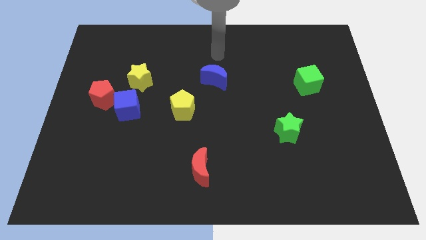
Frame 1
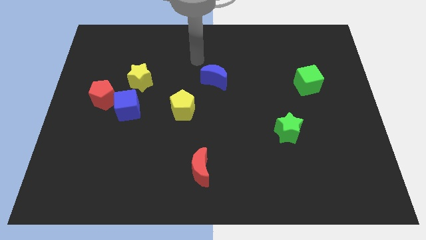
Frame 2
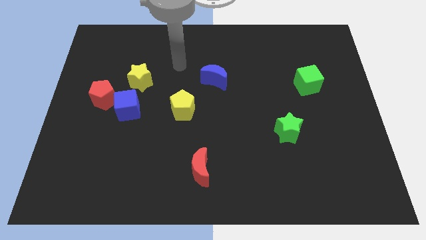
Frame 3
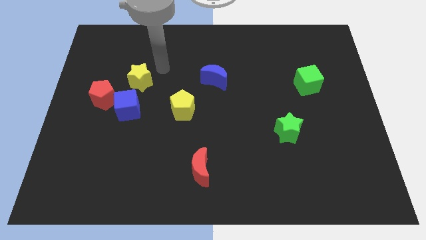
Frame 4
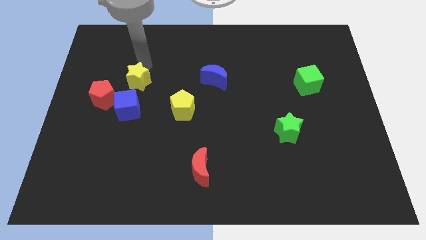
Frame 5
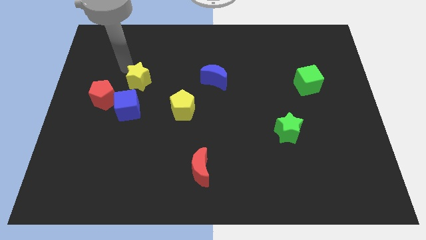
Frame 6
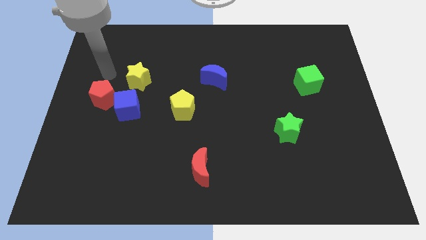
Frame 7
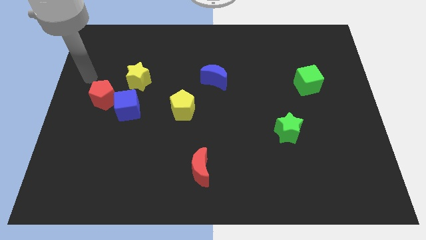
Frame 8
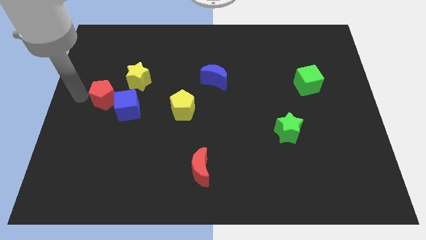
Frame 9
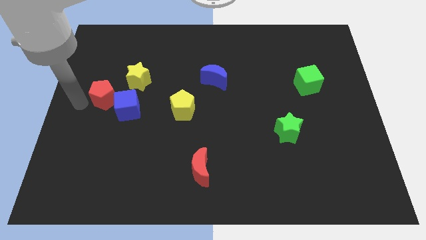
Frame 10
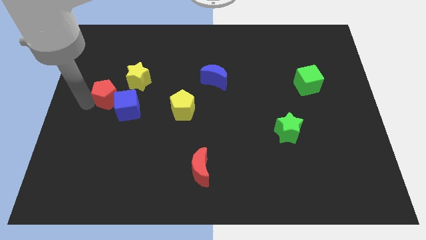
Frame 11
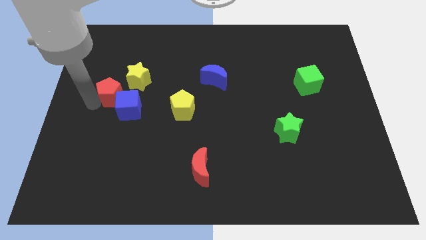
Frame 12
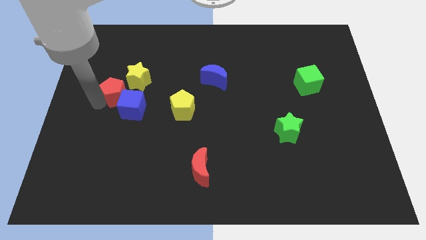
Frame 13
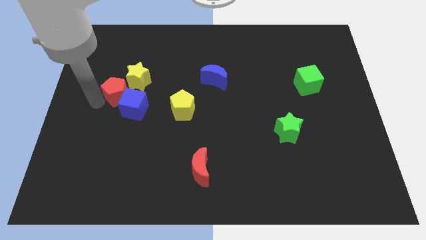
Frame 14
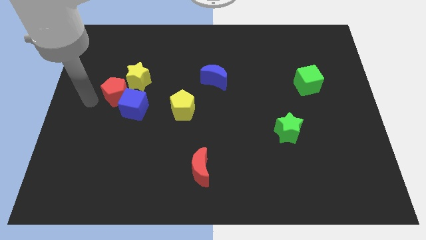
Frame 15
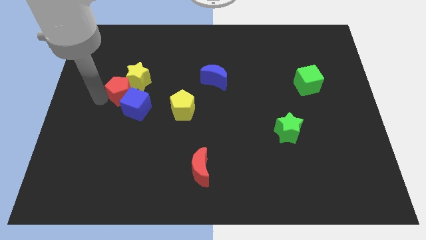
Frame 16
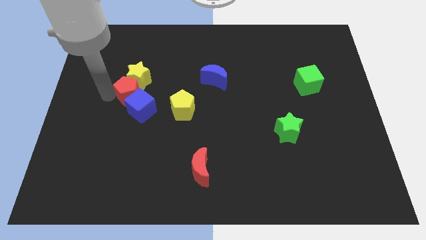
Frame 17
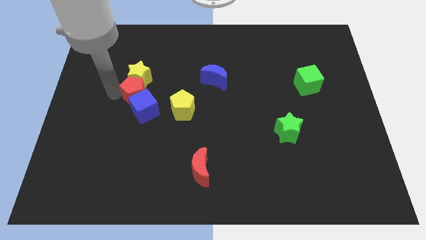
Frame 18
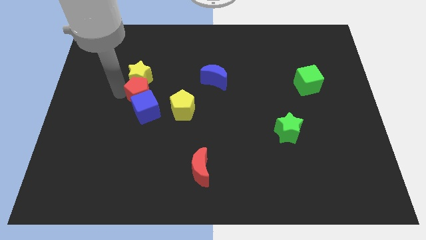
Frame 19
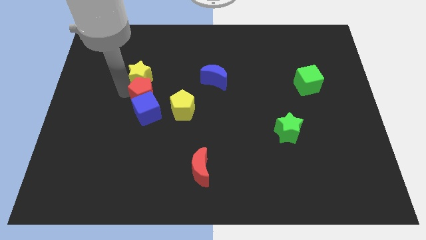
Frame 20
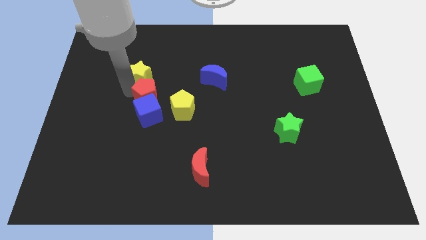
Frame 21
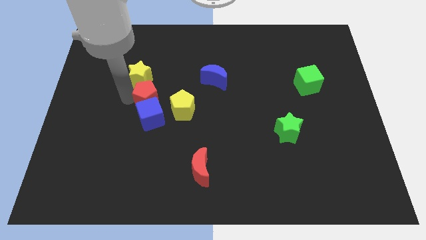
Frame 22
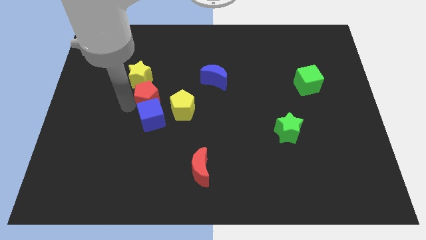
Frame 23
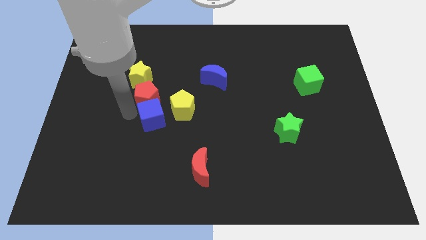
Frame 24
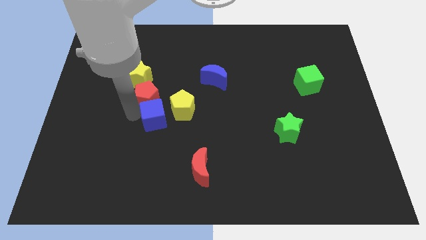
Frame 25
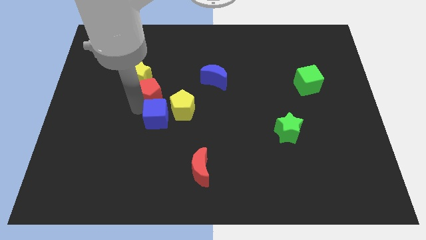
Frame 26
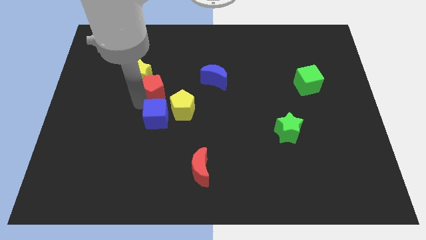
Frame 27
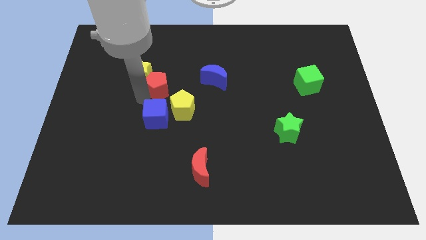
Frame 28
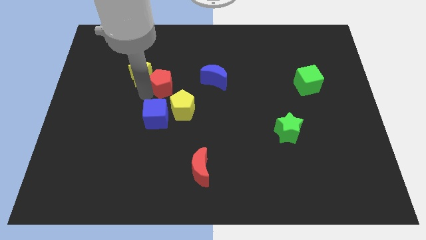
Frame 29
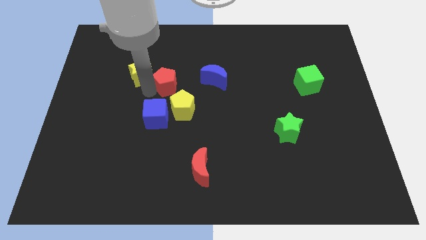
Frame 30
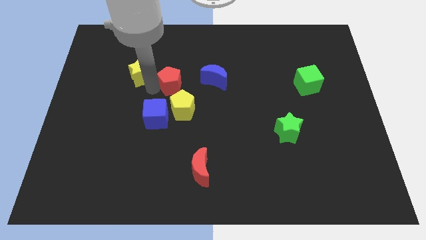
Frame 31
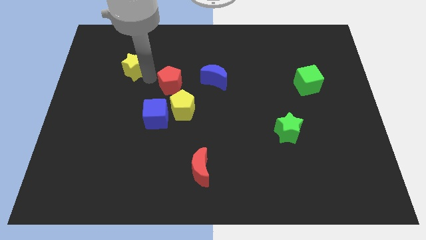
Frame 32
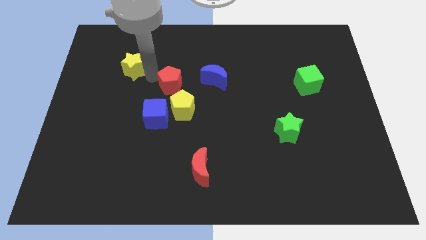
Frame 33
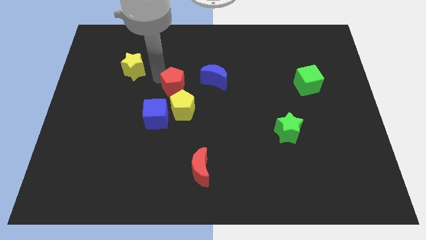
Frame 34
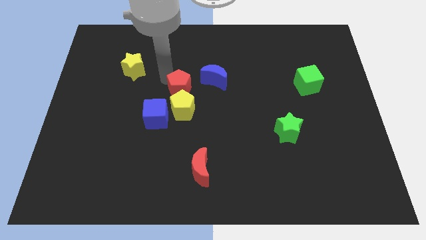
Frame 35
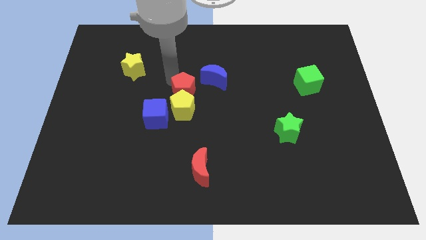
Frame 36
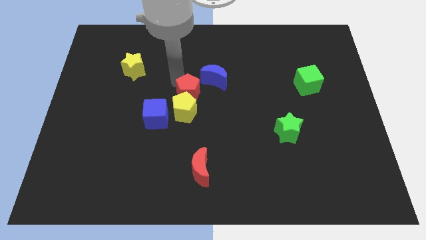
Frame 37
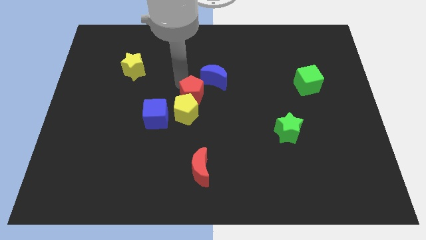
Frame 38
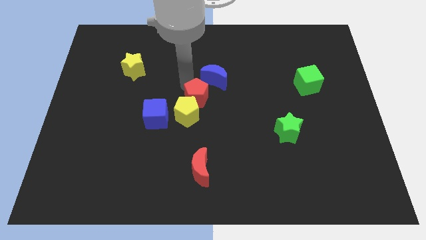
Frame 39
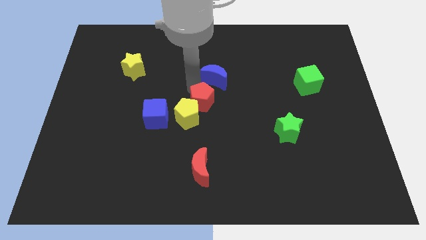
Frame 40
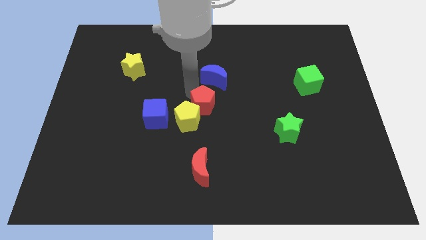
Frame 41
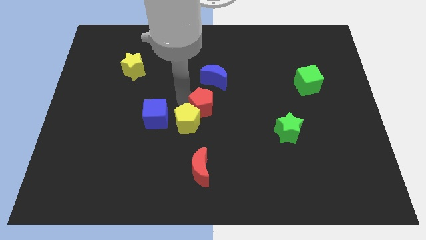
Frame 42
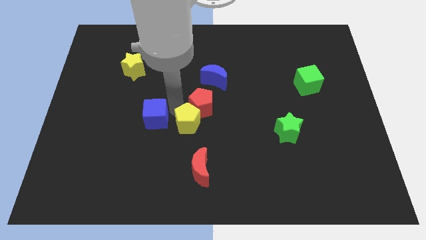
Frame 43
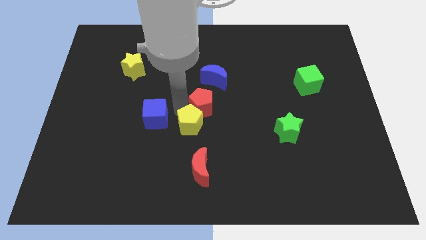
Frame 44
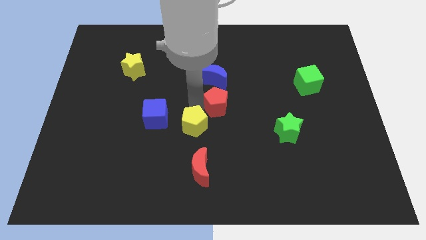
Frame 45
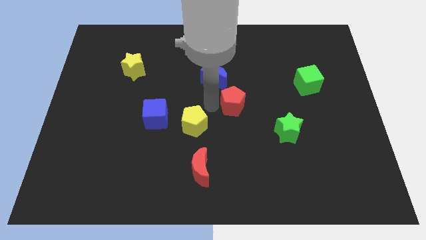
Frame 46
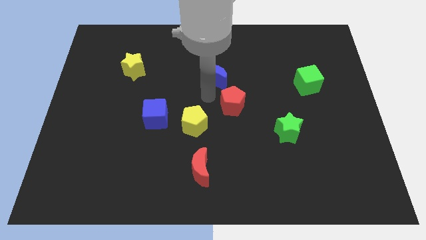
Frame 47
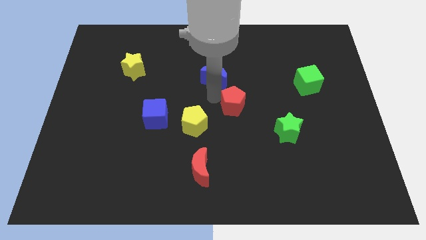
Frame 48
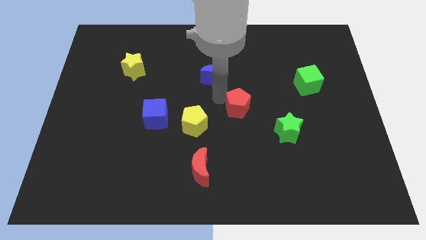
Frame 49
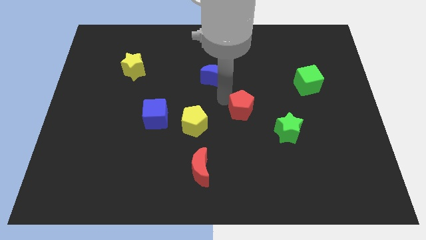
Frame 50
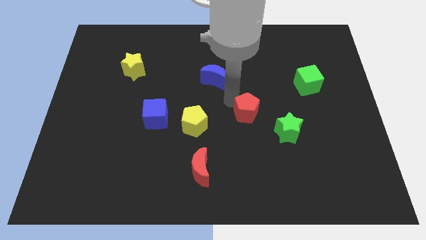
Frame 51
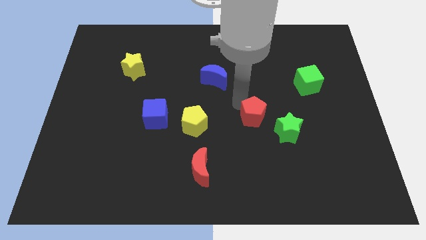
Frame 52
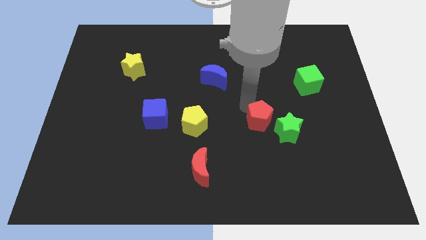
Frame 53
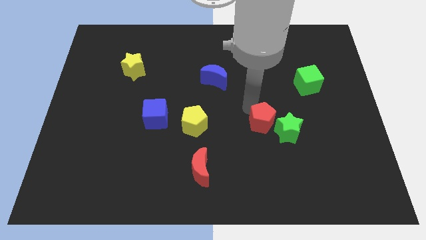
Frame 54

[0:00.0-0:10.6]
put the red pentagon next to the green star

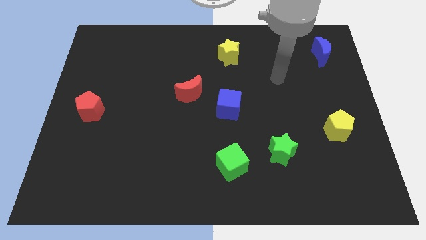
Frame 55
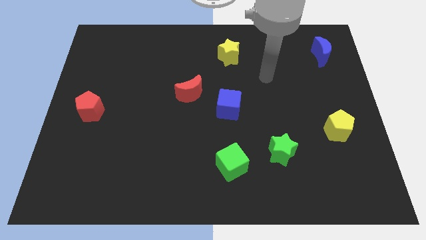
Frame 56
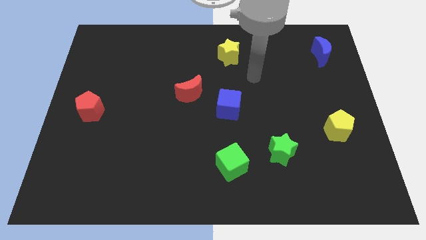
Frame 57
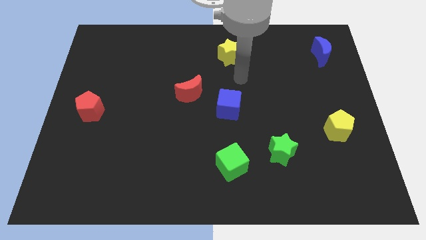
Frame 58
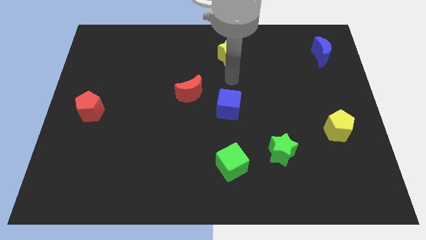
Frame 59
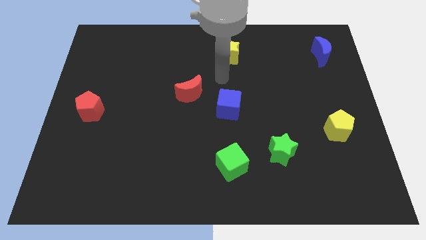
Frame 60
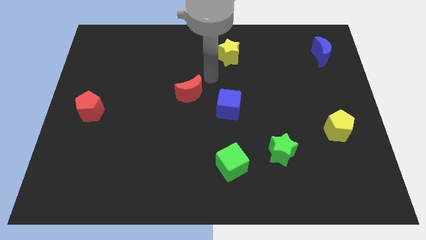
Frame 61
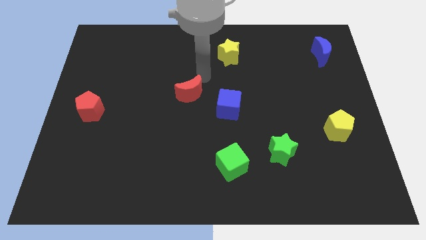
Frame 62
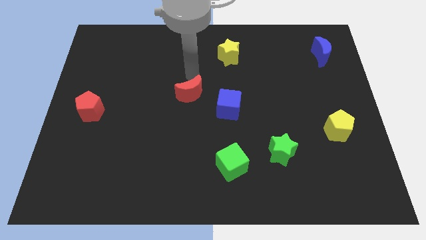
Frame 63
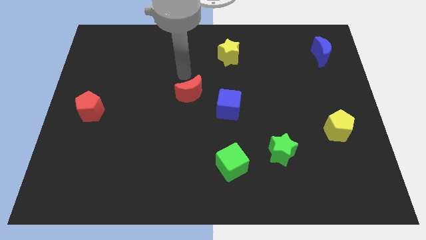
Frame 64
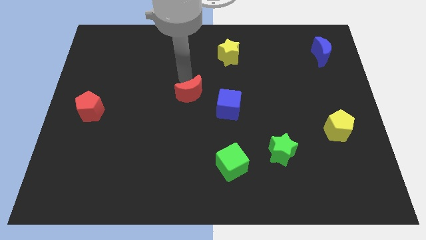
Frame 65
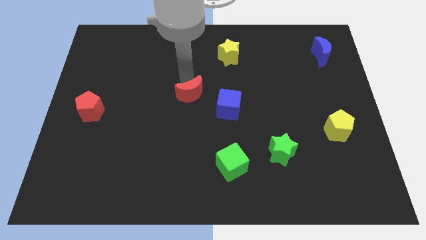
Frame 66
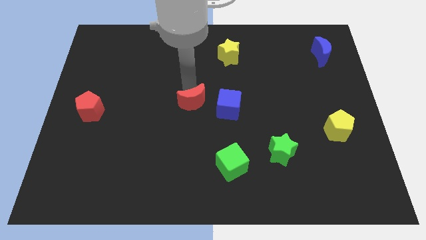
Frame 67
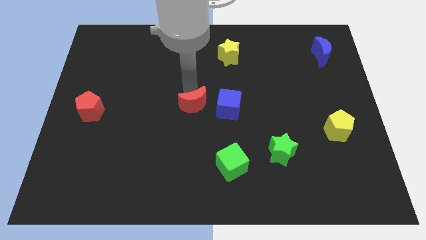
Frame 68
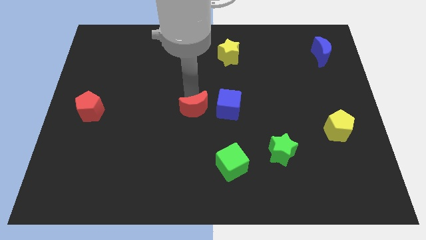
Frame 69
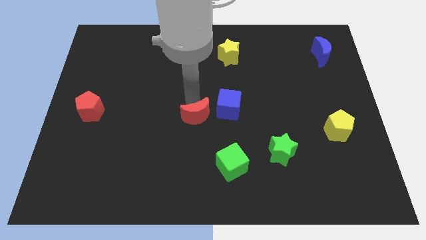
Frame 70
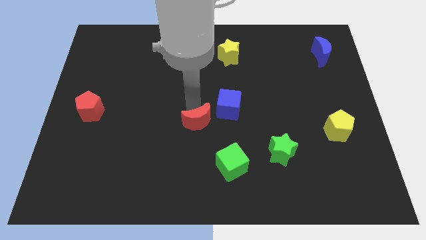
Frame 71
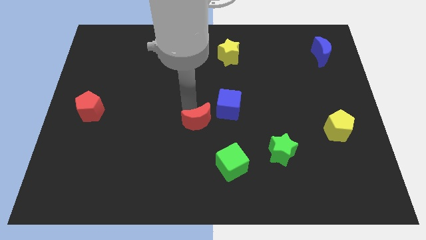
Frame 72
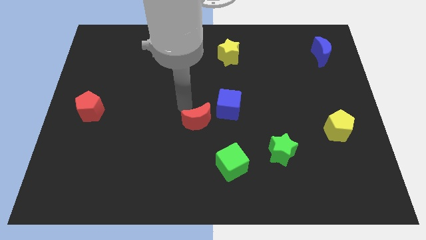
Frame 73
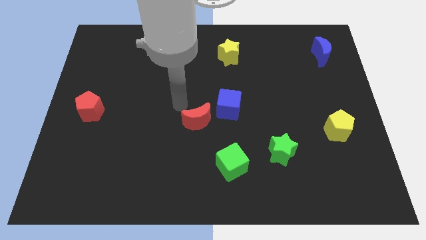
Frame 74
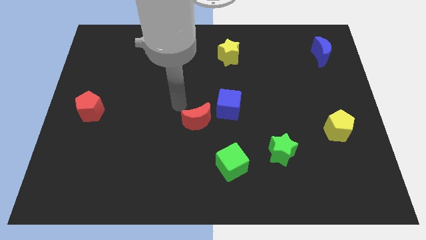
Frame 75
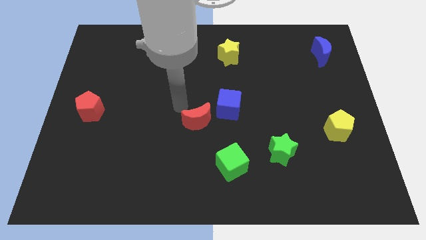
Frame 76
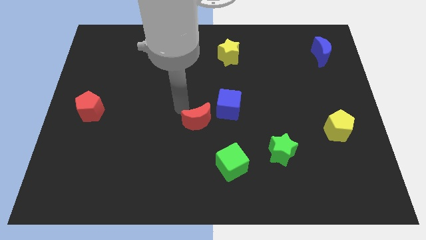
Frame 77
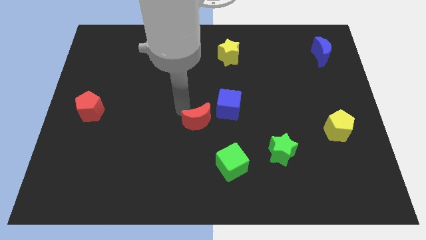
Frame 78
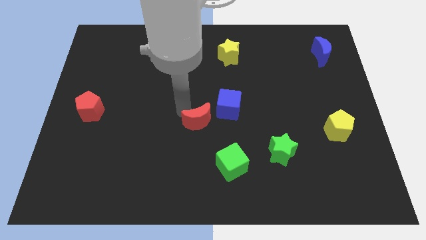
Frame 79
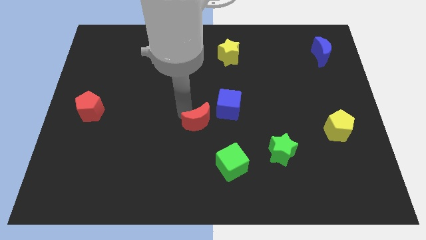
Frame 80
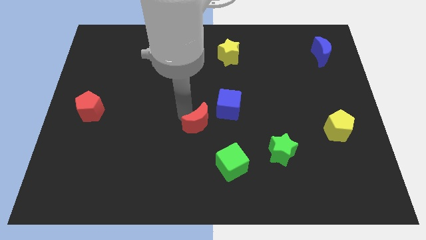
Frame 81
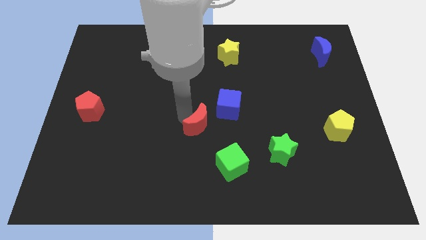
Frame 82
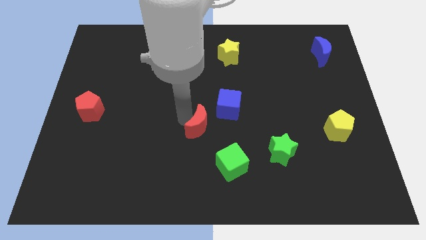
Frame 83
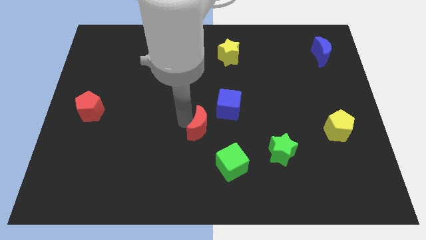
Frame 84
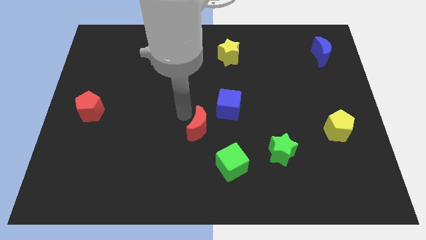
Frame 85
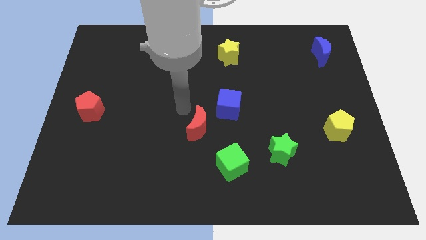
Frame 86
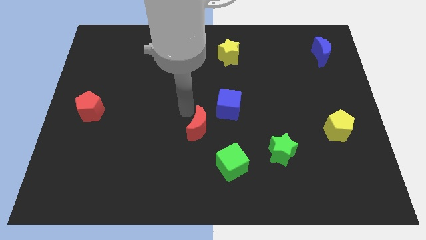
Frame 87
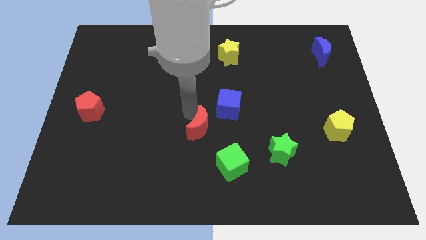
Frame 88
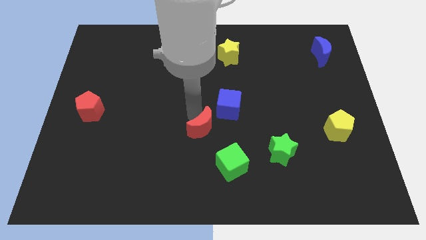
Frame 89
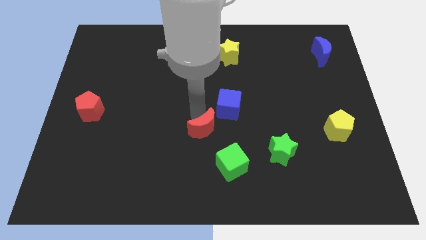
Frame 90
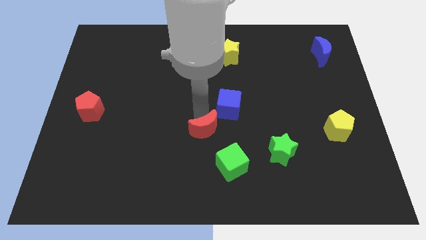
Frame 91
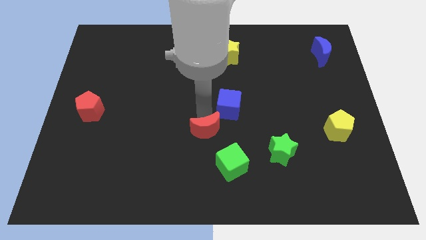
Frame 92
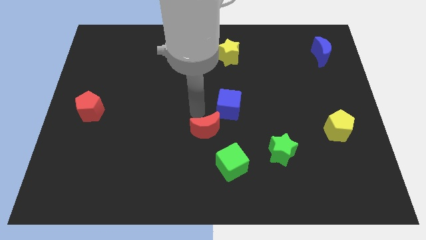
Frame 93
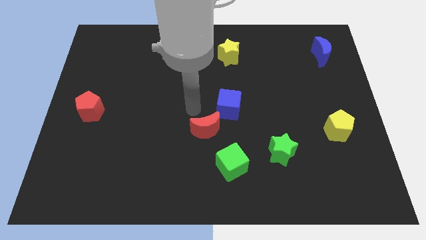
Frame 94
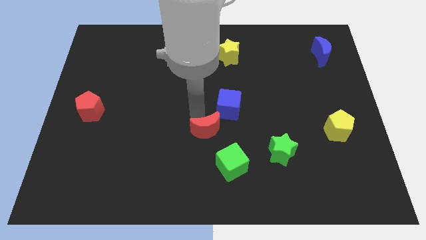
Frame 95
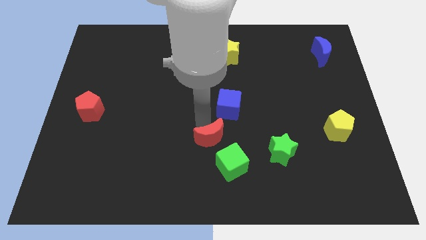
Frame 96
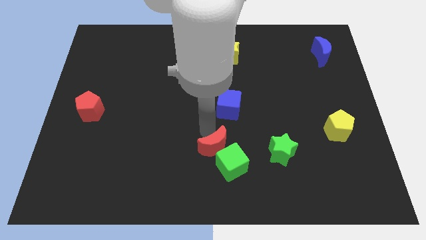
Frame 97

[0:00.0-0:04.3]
push the red moon close to the green cube
